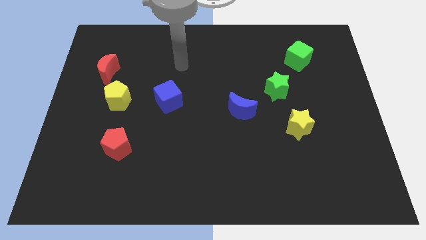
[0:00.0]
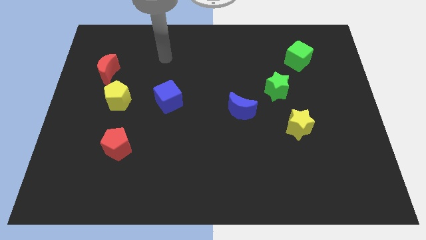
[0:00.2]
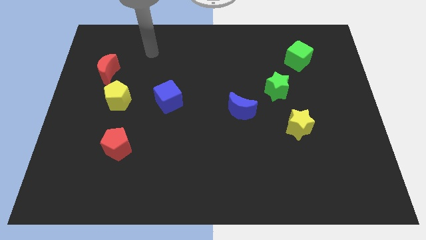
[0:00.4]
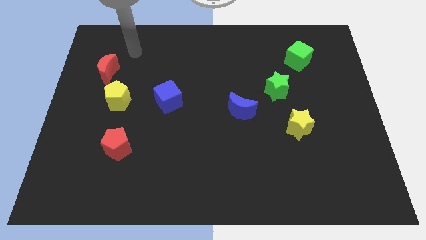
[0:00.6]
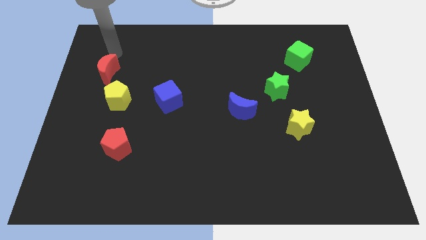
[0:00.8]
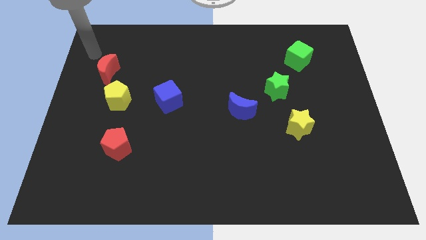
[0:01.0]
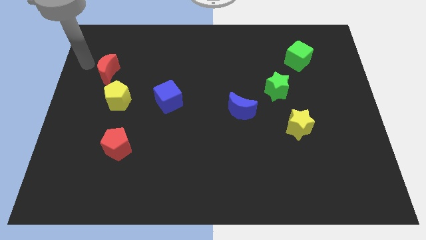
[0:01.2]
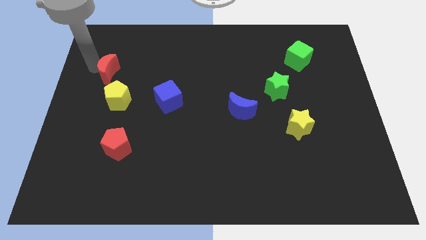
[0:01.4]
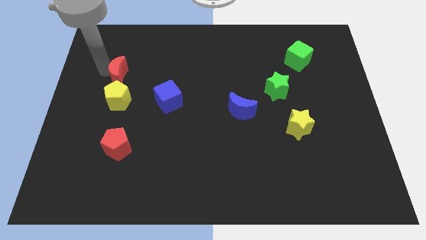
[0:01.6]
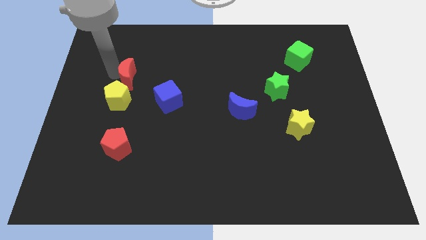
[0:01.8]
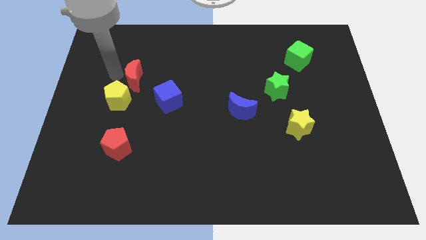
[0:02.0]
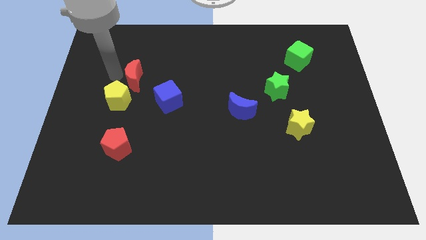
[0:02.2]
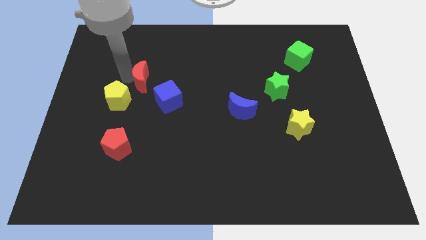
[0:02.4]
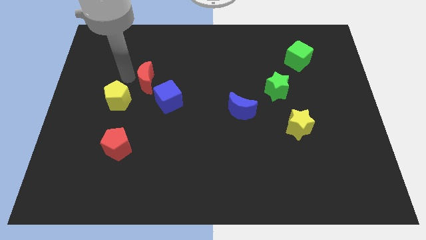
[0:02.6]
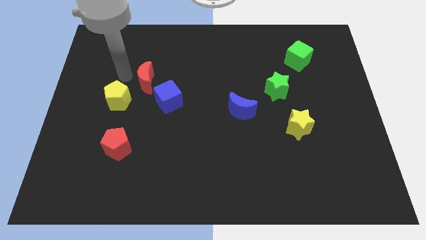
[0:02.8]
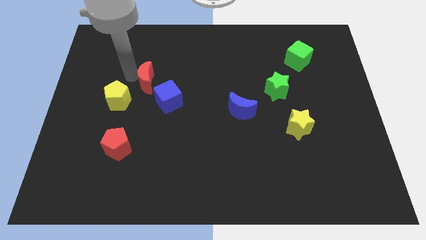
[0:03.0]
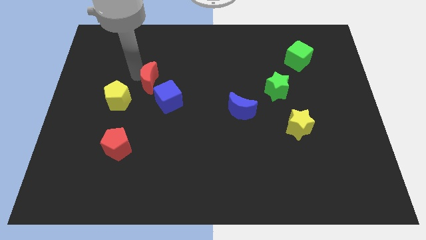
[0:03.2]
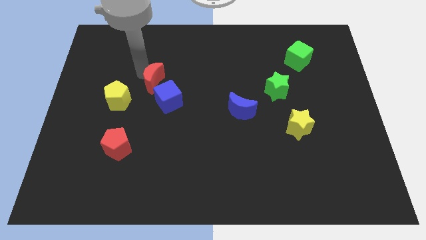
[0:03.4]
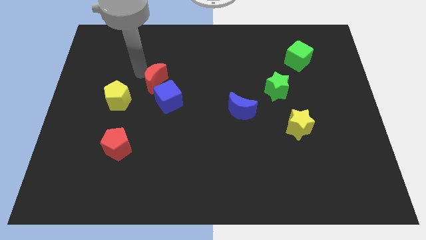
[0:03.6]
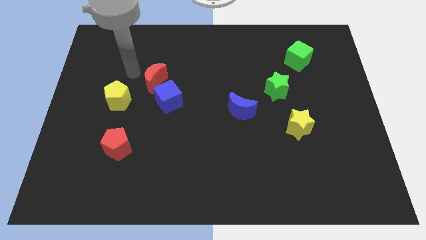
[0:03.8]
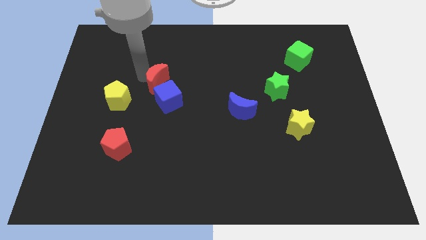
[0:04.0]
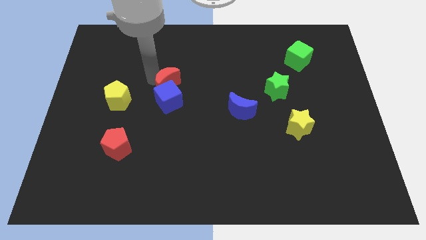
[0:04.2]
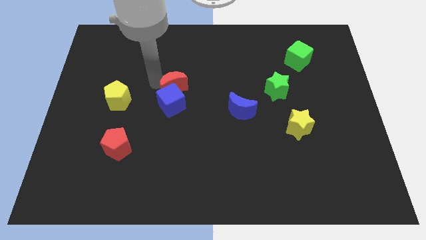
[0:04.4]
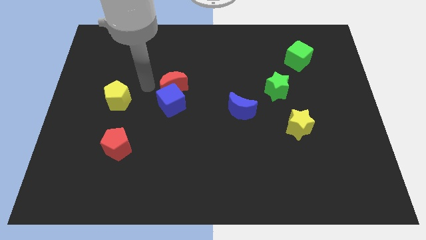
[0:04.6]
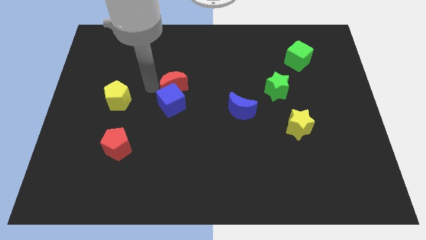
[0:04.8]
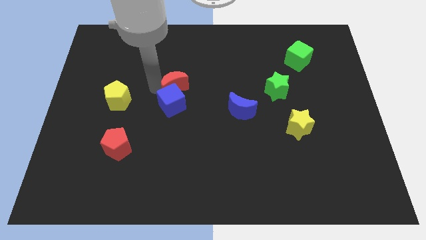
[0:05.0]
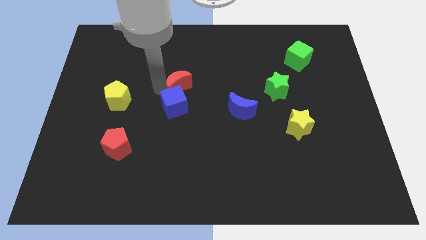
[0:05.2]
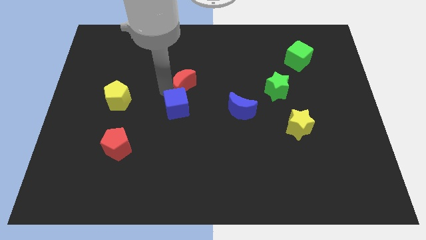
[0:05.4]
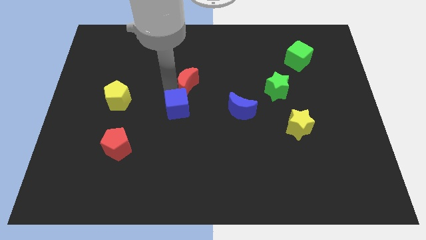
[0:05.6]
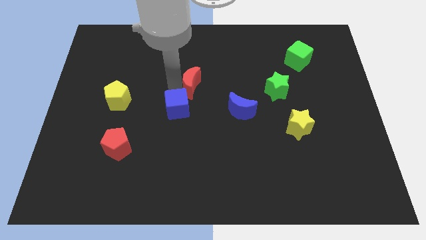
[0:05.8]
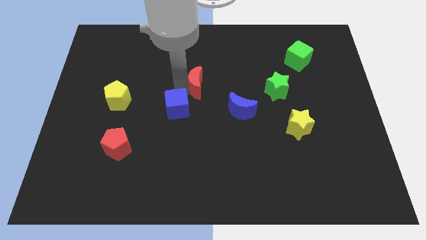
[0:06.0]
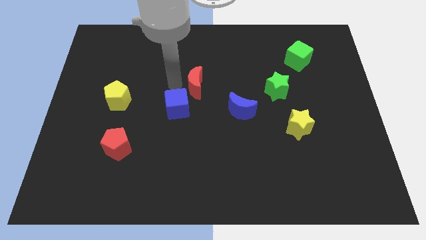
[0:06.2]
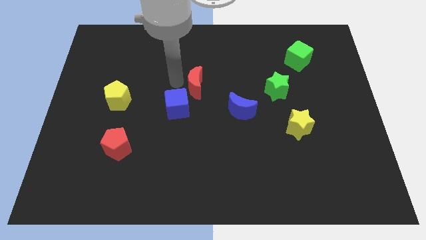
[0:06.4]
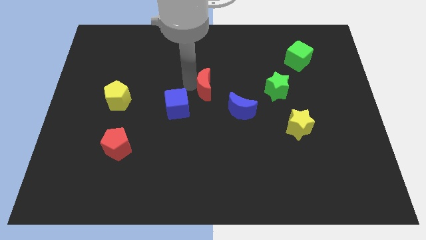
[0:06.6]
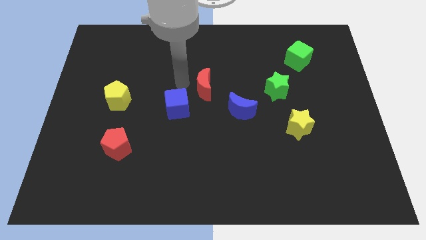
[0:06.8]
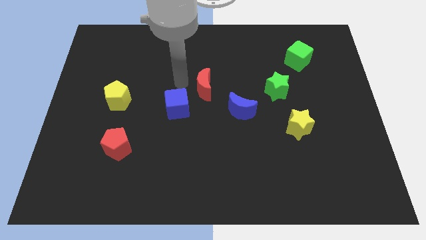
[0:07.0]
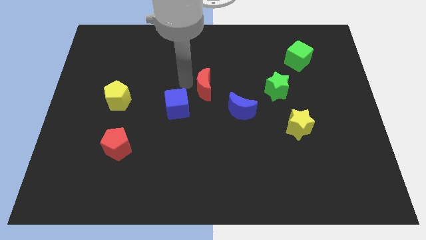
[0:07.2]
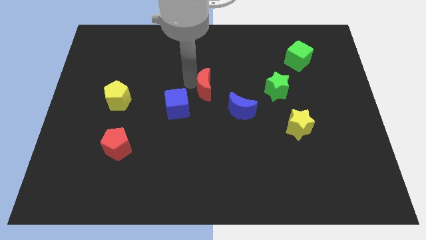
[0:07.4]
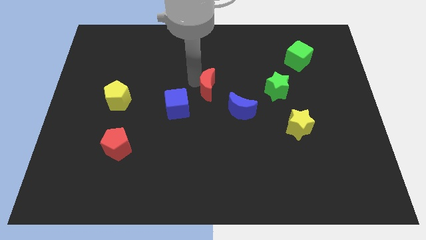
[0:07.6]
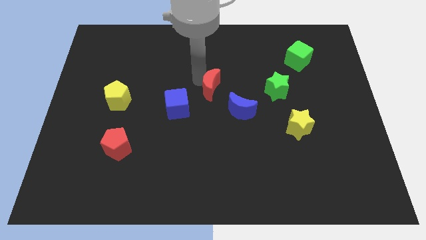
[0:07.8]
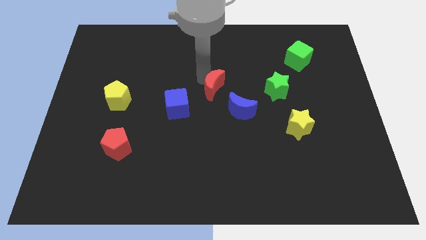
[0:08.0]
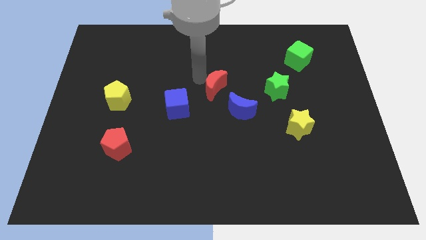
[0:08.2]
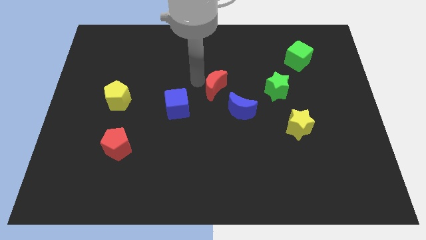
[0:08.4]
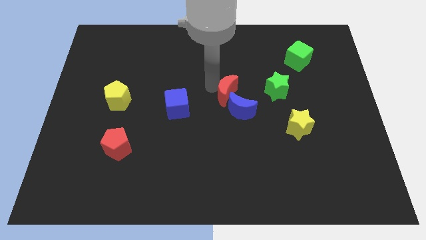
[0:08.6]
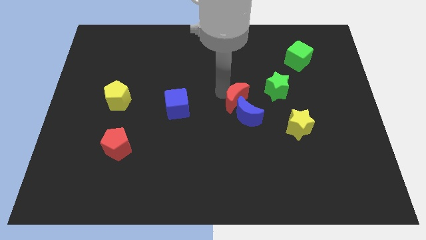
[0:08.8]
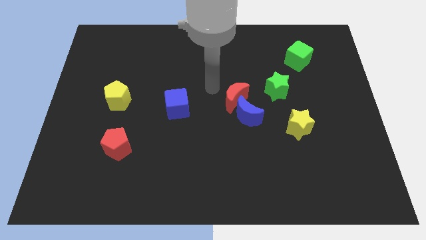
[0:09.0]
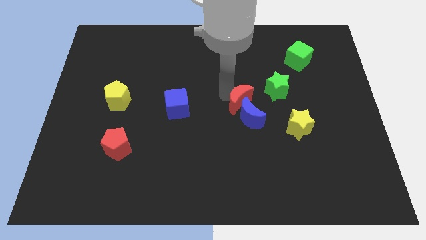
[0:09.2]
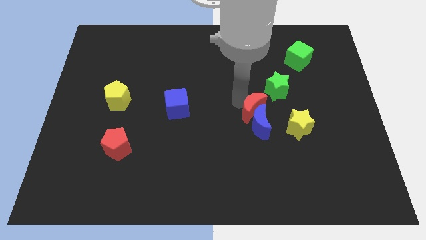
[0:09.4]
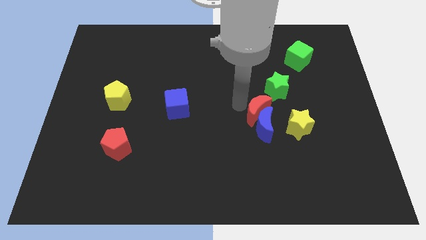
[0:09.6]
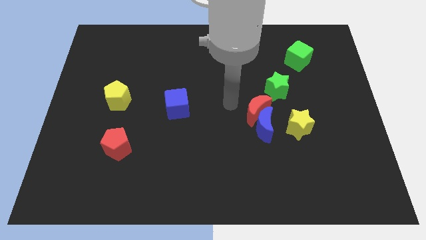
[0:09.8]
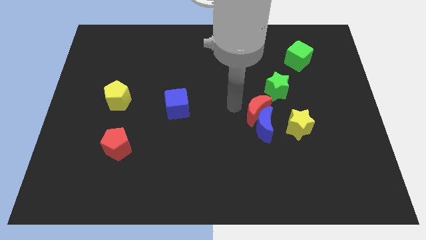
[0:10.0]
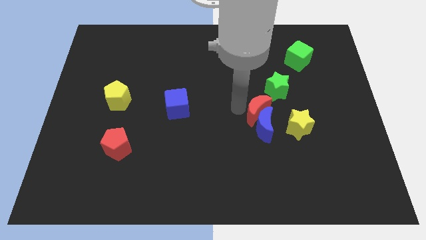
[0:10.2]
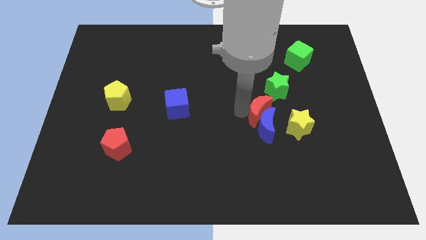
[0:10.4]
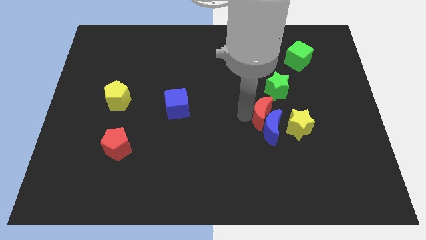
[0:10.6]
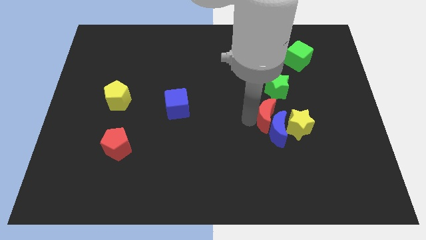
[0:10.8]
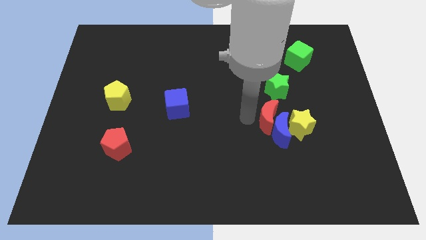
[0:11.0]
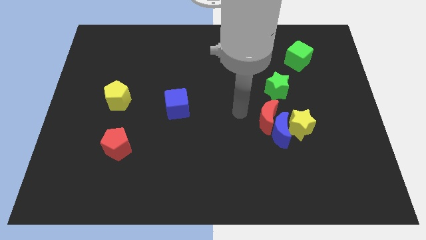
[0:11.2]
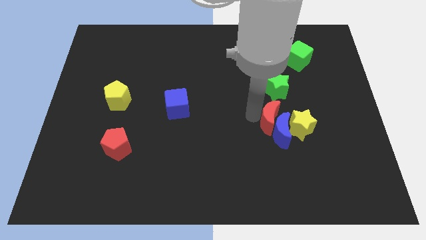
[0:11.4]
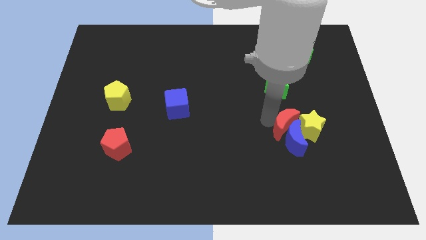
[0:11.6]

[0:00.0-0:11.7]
push the red moon close to the yellow star

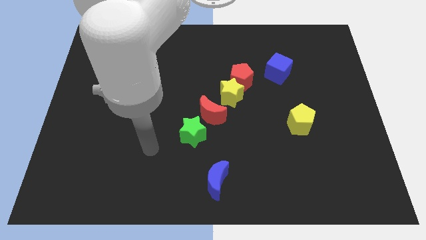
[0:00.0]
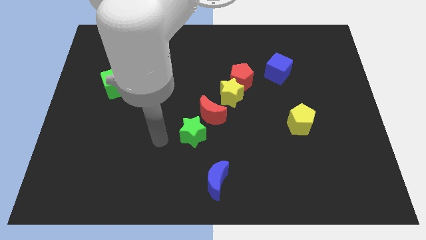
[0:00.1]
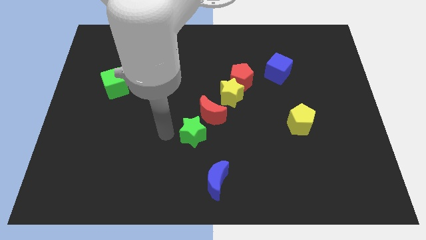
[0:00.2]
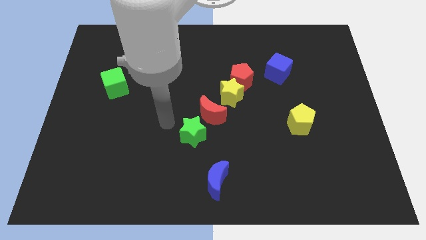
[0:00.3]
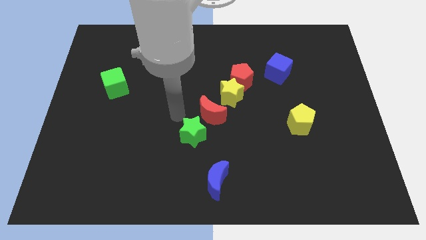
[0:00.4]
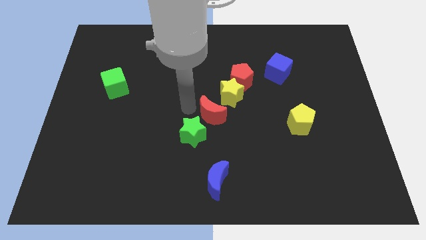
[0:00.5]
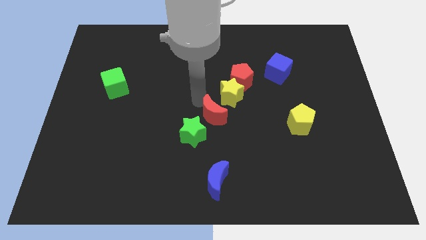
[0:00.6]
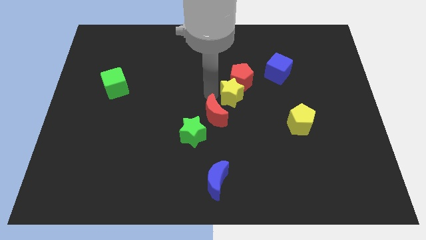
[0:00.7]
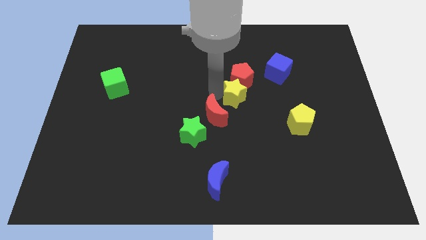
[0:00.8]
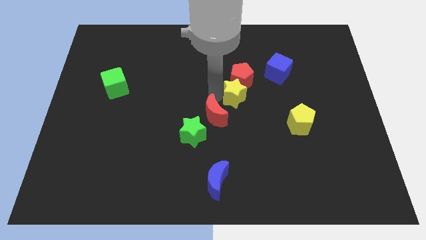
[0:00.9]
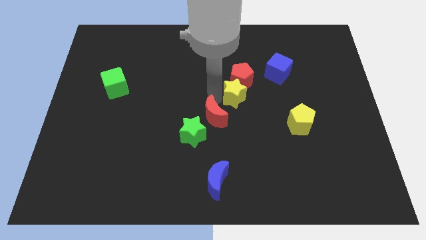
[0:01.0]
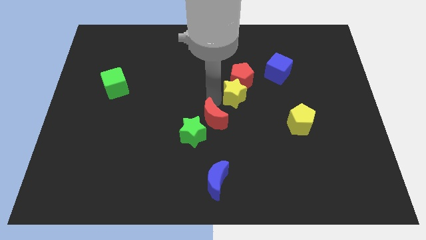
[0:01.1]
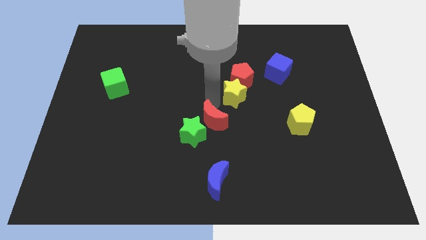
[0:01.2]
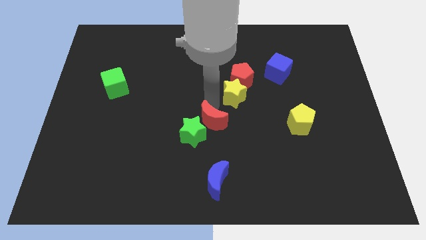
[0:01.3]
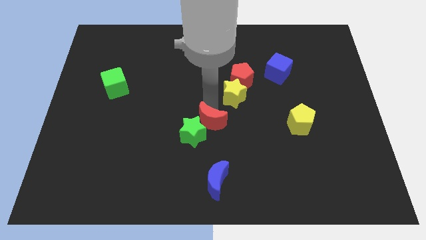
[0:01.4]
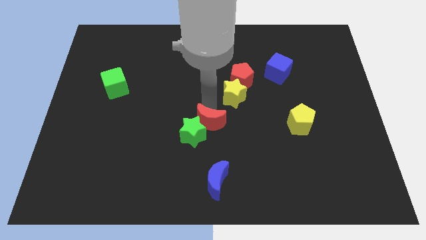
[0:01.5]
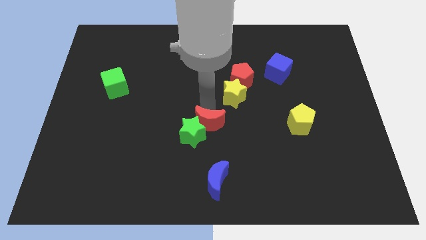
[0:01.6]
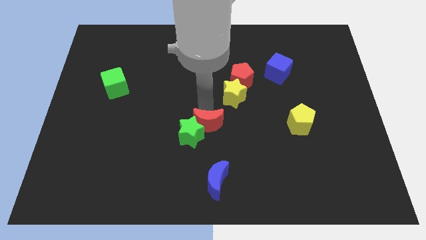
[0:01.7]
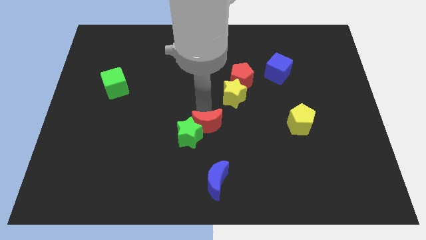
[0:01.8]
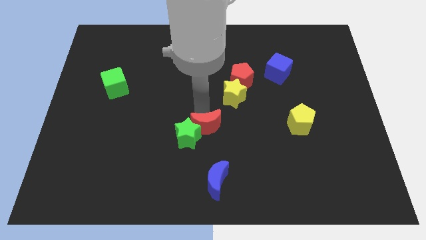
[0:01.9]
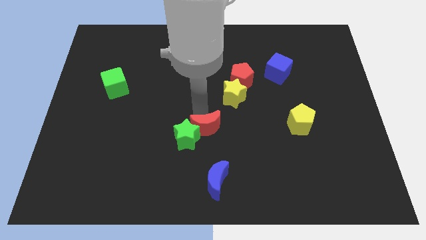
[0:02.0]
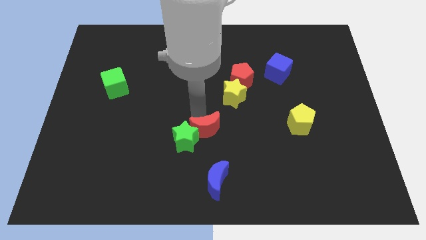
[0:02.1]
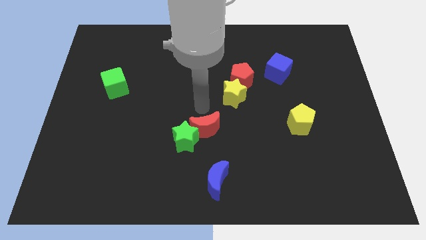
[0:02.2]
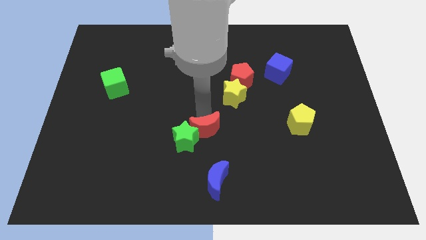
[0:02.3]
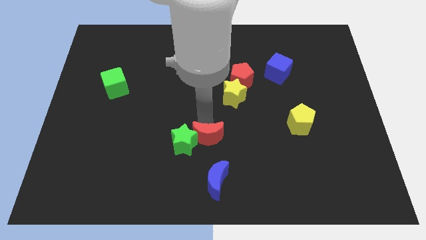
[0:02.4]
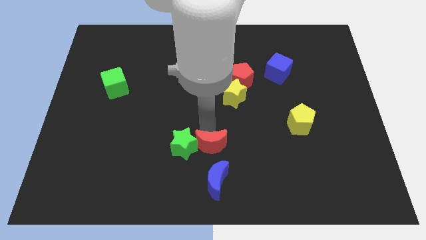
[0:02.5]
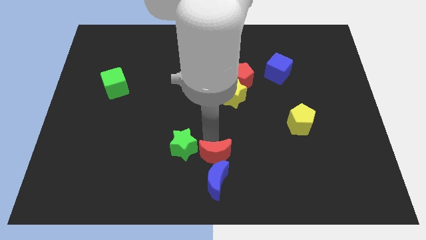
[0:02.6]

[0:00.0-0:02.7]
move the red moon to the blue moon
